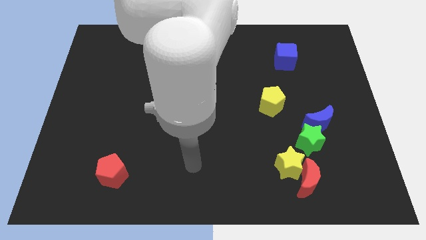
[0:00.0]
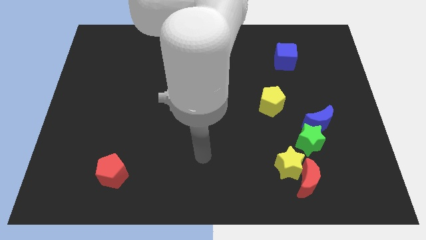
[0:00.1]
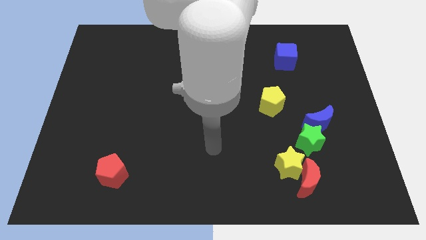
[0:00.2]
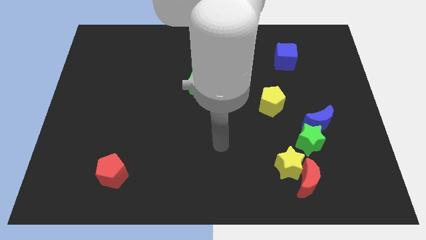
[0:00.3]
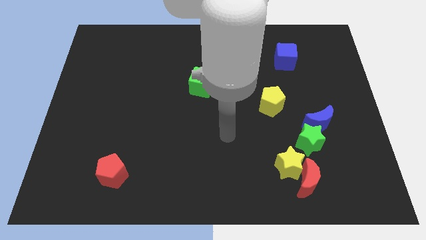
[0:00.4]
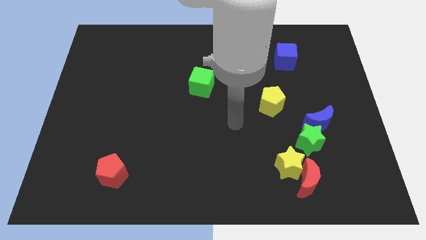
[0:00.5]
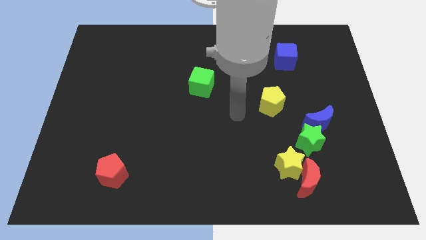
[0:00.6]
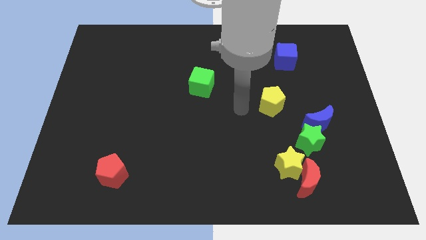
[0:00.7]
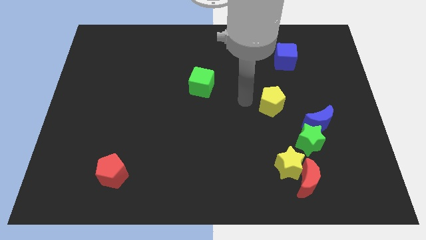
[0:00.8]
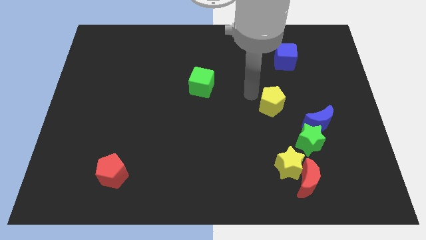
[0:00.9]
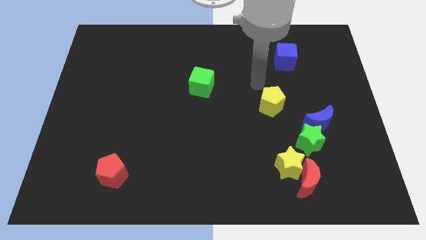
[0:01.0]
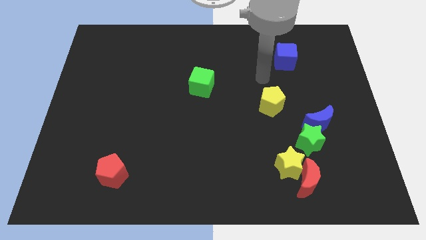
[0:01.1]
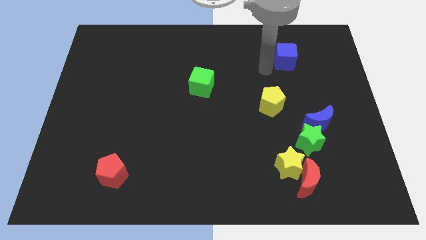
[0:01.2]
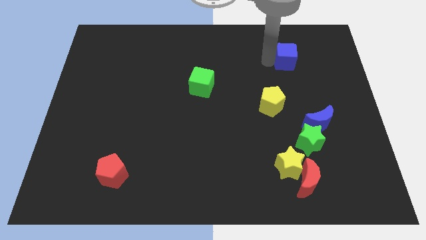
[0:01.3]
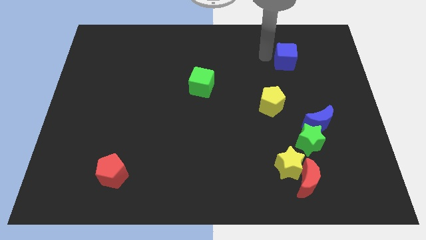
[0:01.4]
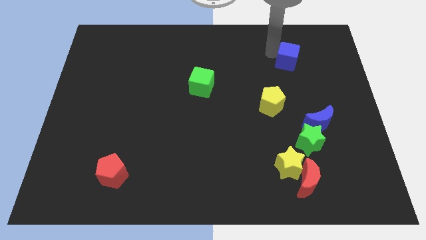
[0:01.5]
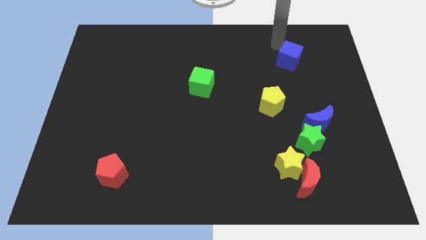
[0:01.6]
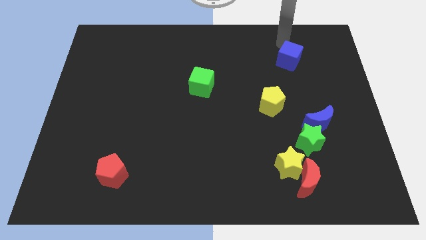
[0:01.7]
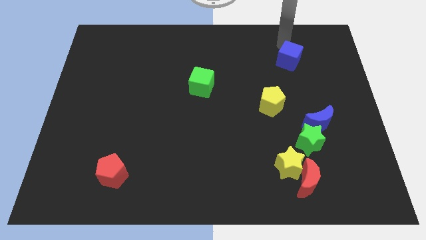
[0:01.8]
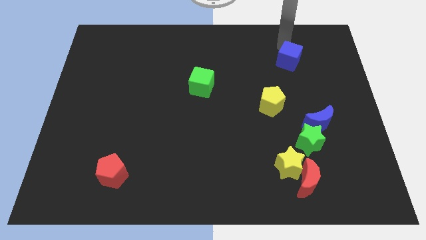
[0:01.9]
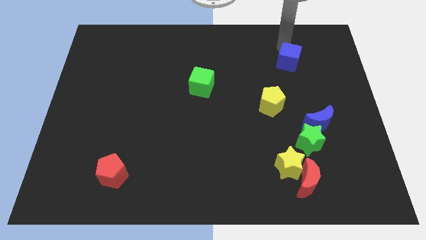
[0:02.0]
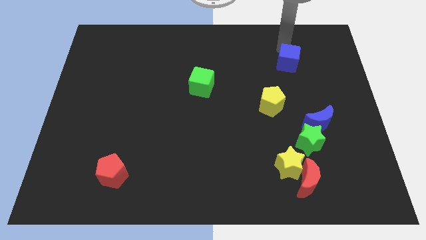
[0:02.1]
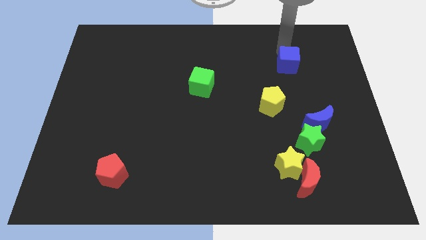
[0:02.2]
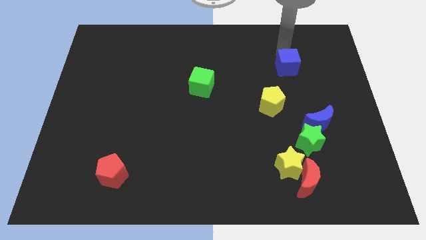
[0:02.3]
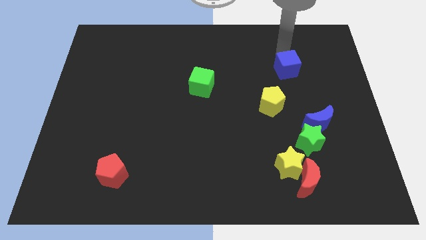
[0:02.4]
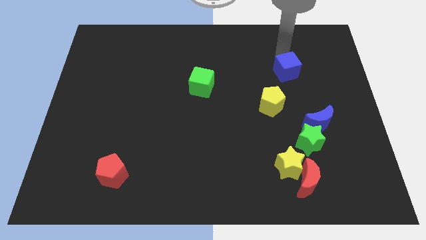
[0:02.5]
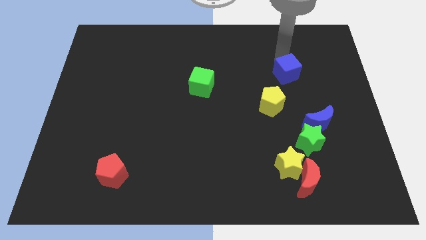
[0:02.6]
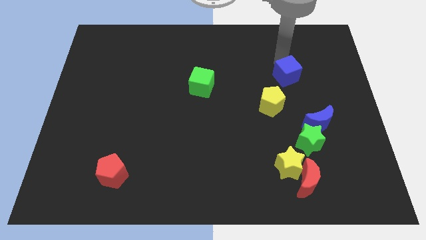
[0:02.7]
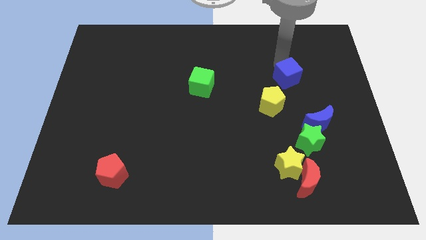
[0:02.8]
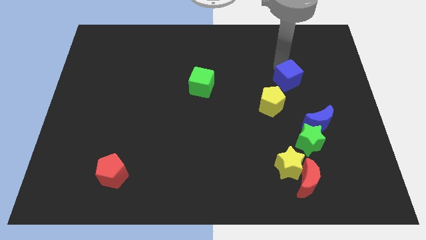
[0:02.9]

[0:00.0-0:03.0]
move the blue cube downwards slightly

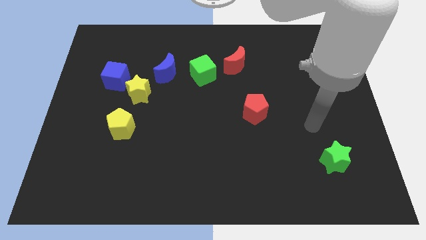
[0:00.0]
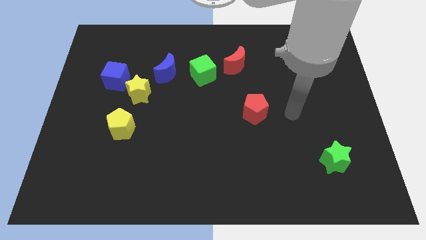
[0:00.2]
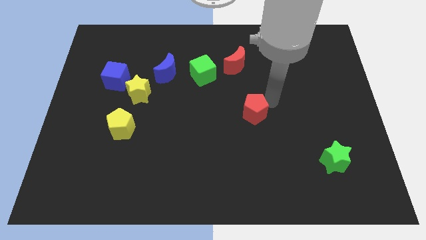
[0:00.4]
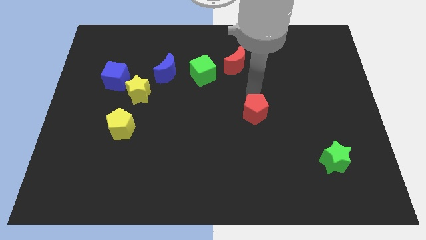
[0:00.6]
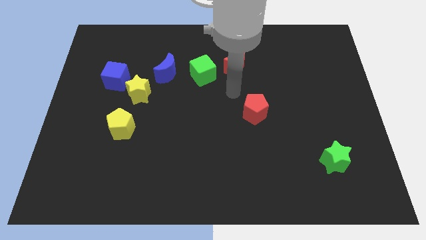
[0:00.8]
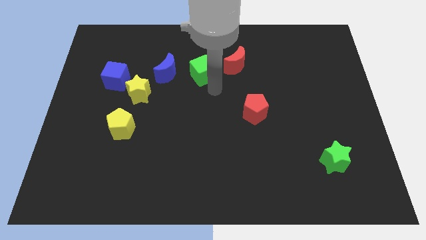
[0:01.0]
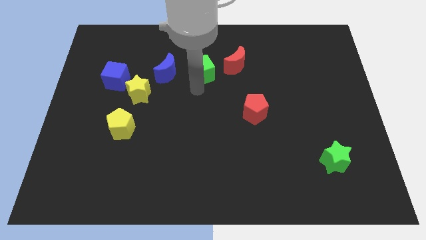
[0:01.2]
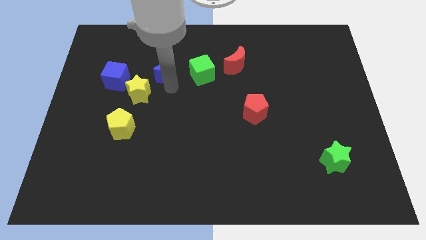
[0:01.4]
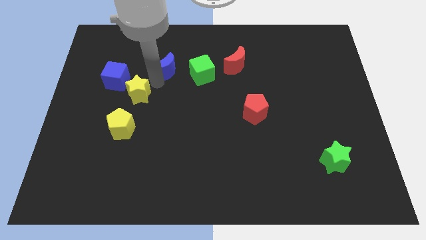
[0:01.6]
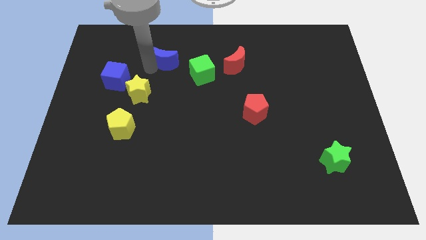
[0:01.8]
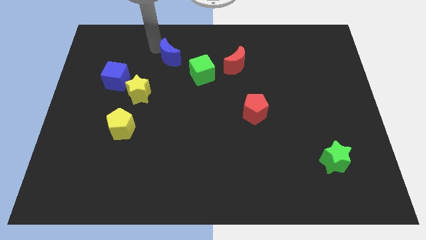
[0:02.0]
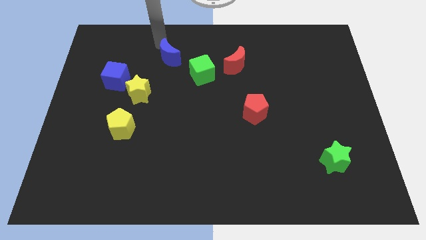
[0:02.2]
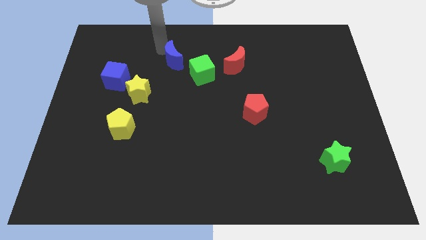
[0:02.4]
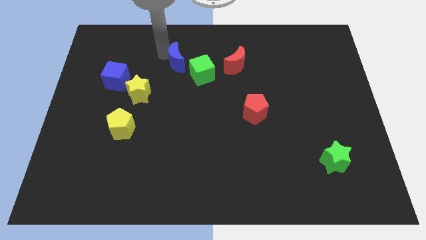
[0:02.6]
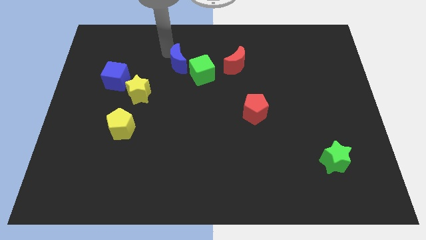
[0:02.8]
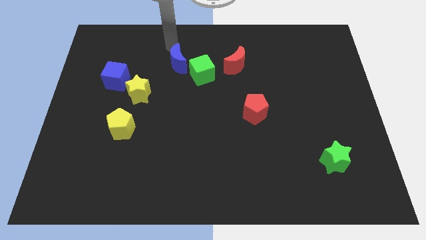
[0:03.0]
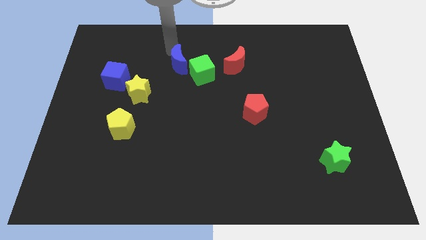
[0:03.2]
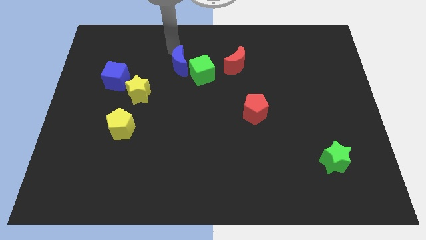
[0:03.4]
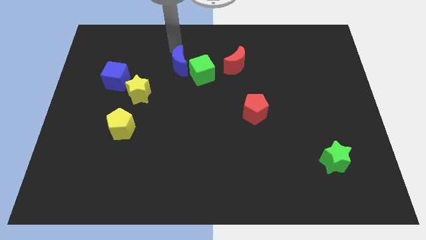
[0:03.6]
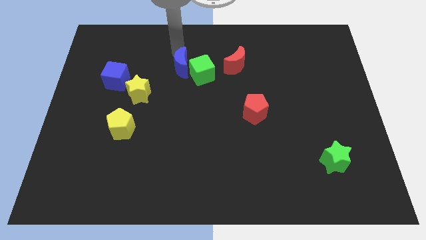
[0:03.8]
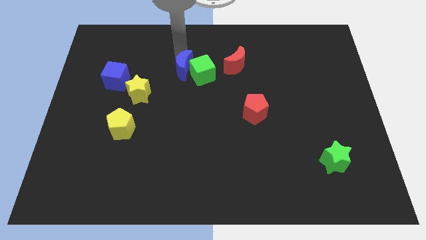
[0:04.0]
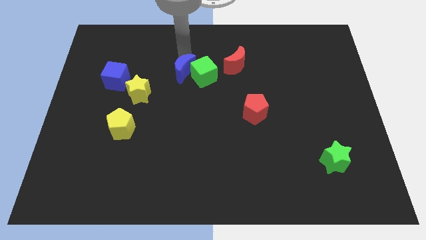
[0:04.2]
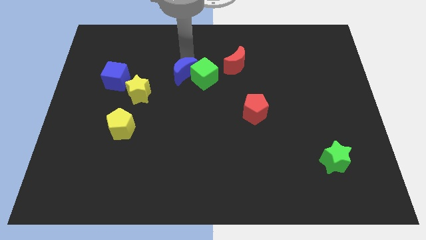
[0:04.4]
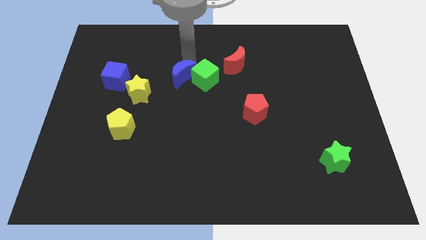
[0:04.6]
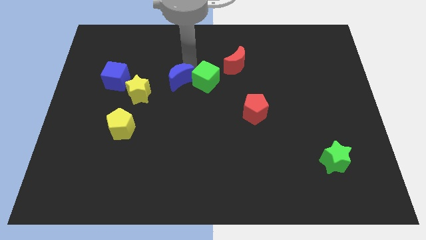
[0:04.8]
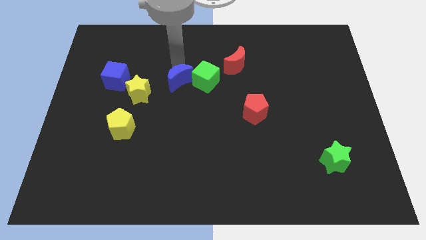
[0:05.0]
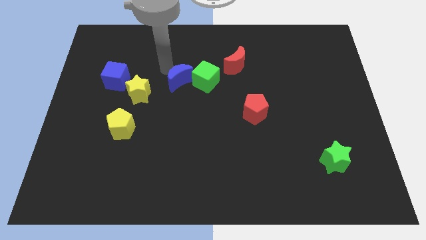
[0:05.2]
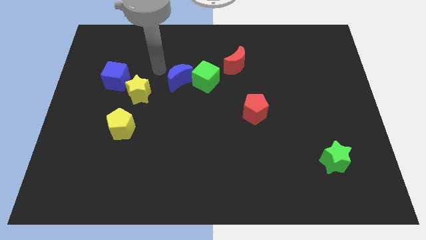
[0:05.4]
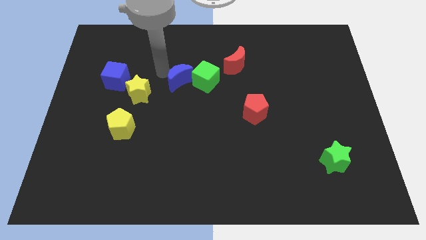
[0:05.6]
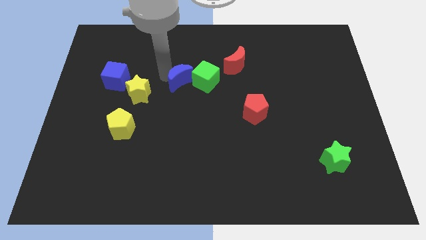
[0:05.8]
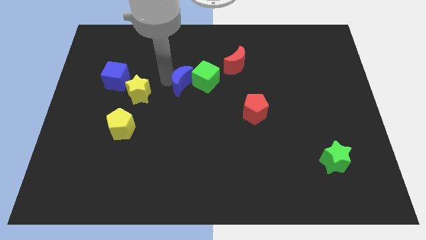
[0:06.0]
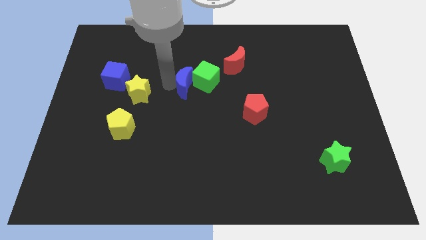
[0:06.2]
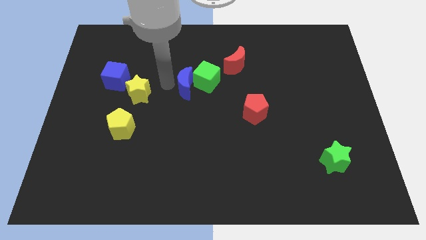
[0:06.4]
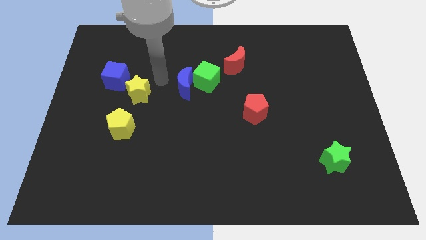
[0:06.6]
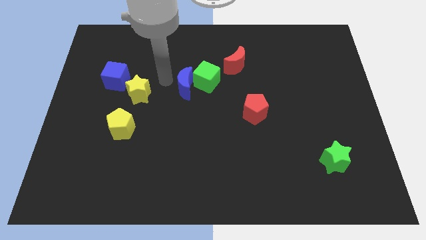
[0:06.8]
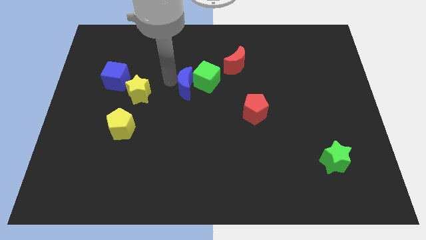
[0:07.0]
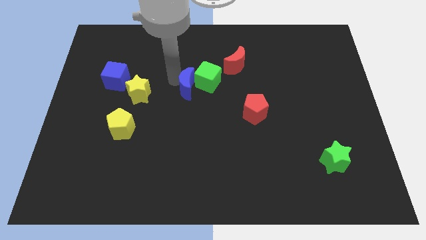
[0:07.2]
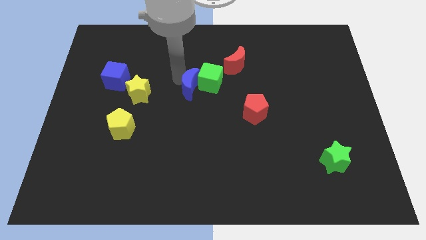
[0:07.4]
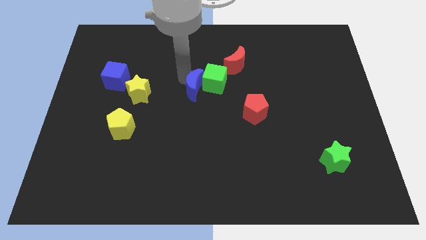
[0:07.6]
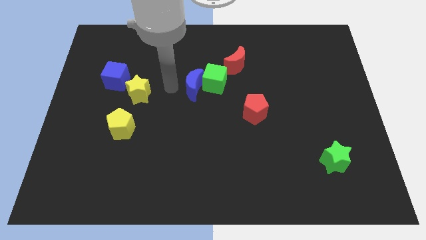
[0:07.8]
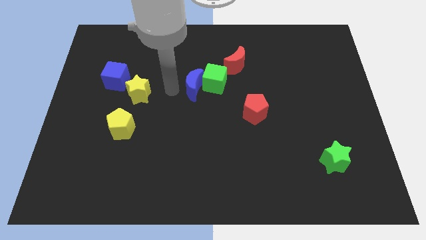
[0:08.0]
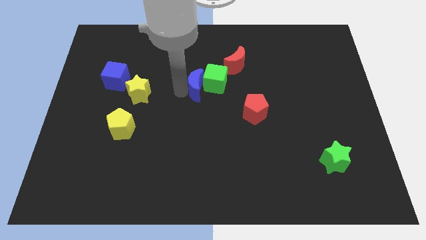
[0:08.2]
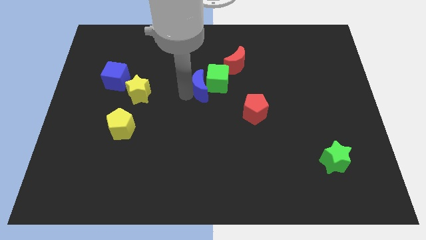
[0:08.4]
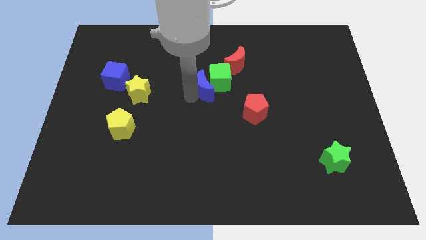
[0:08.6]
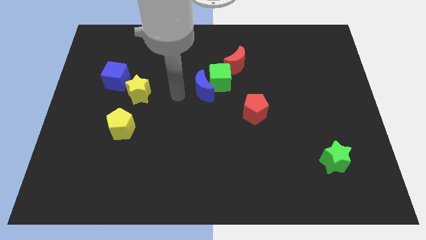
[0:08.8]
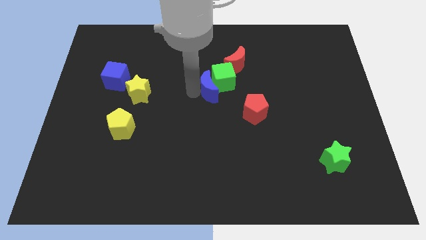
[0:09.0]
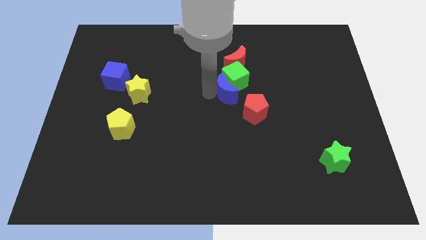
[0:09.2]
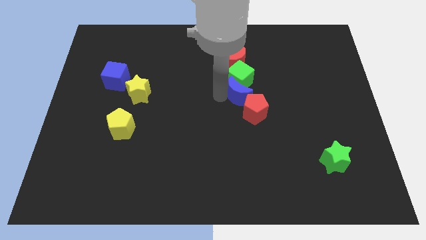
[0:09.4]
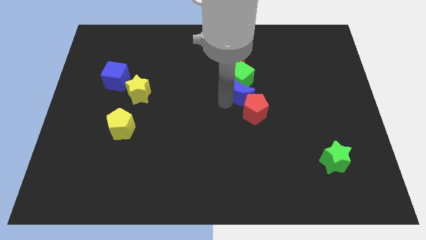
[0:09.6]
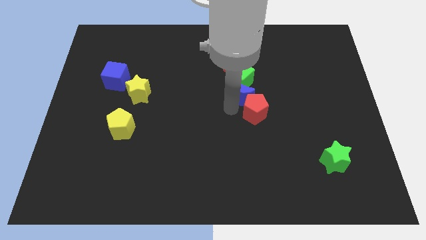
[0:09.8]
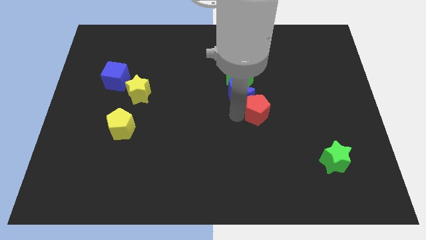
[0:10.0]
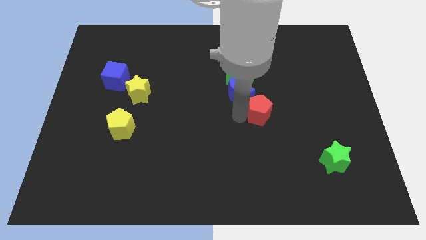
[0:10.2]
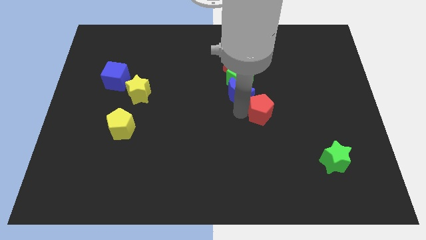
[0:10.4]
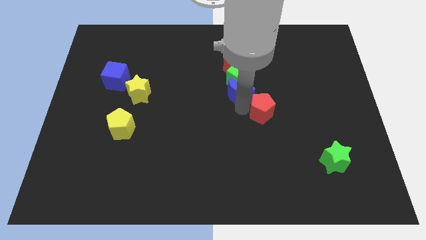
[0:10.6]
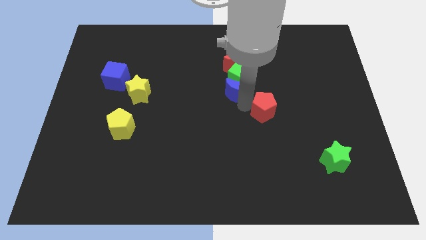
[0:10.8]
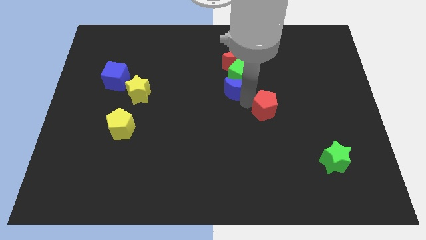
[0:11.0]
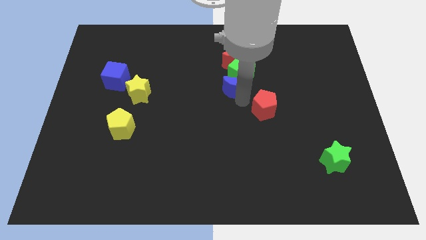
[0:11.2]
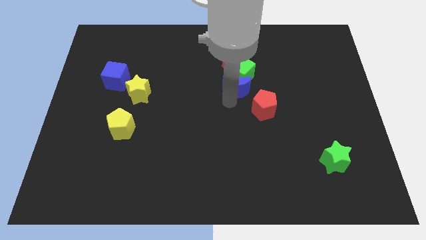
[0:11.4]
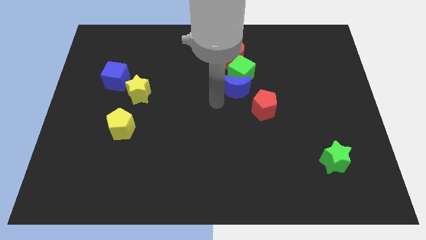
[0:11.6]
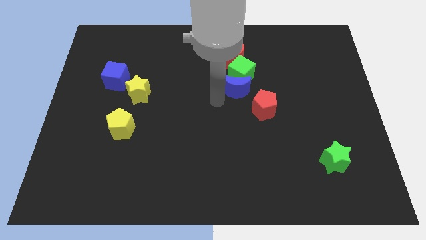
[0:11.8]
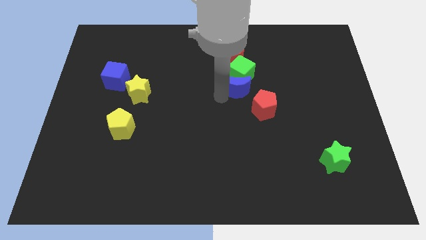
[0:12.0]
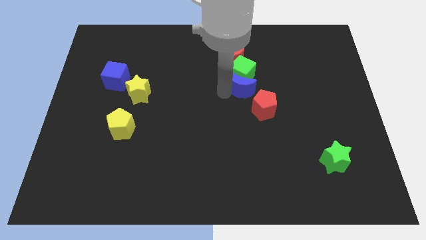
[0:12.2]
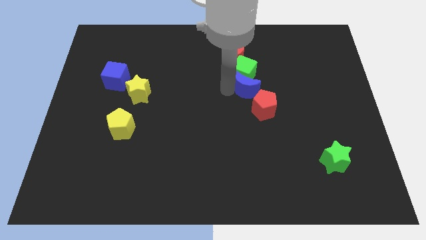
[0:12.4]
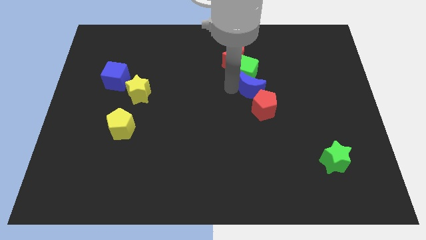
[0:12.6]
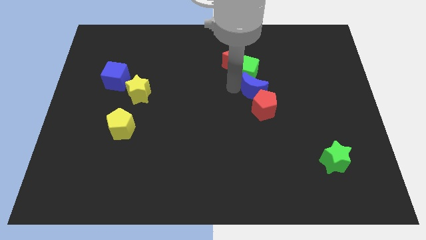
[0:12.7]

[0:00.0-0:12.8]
move the blue moon right
